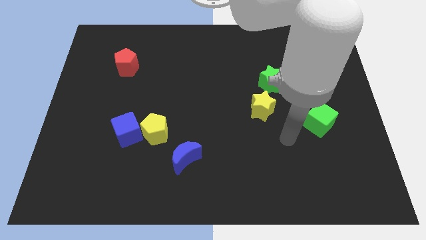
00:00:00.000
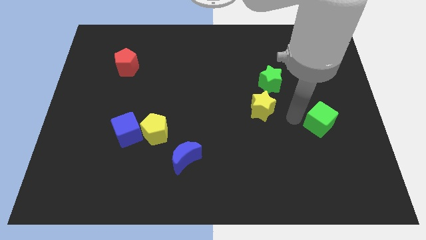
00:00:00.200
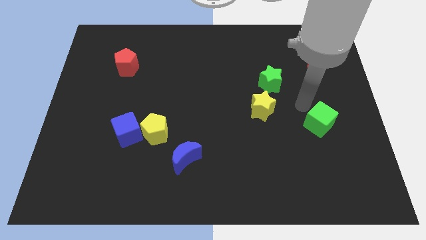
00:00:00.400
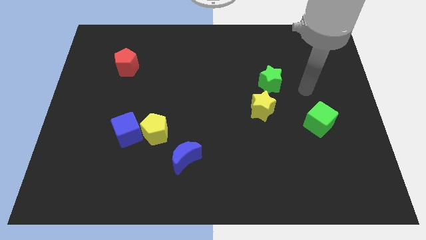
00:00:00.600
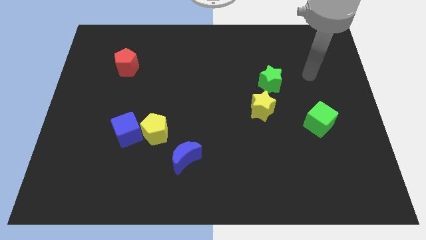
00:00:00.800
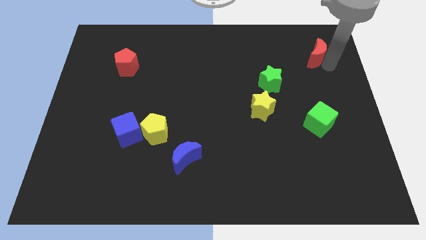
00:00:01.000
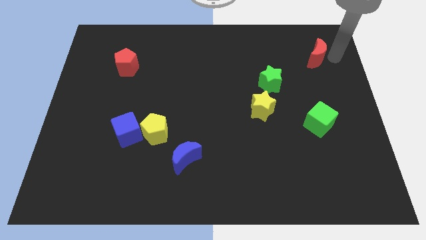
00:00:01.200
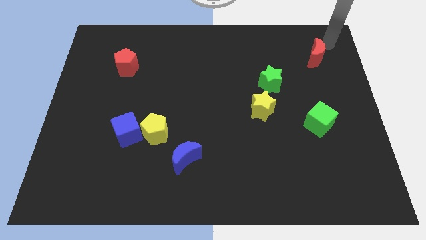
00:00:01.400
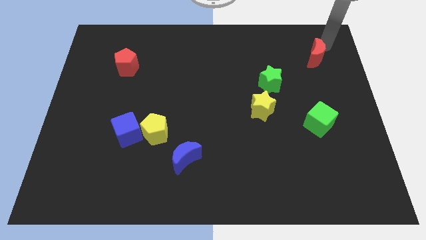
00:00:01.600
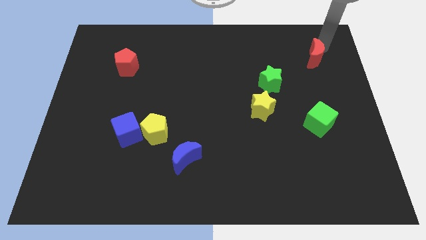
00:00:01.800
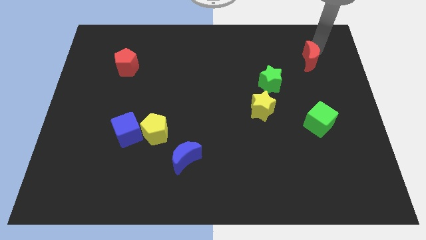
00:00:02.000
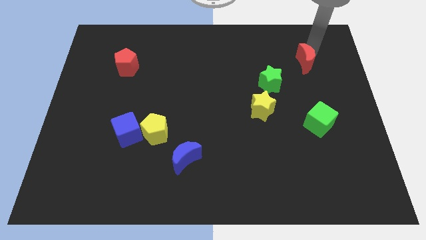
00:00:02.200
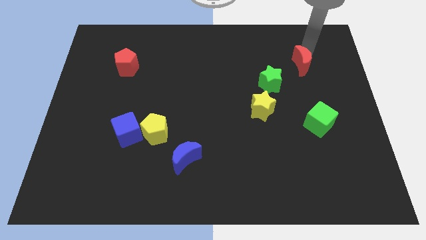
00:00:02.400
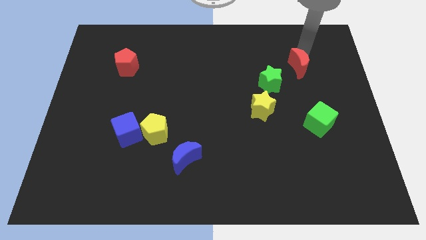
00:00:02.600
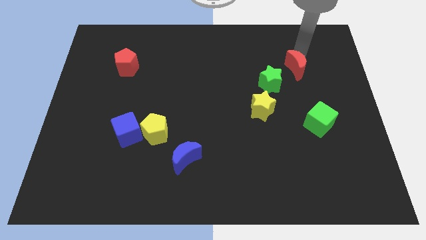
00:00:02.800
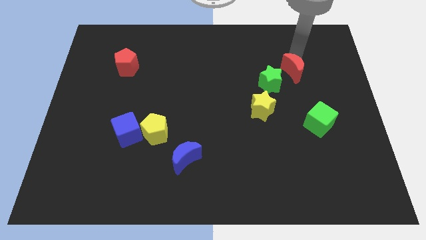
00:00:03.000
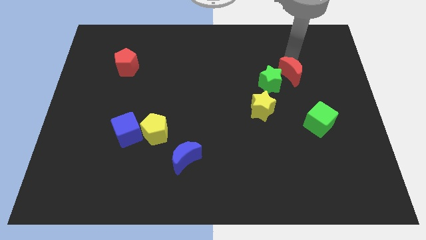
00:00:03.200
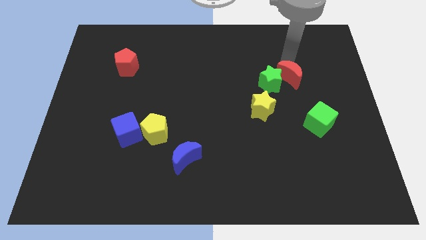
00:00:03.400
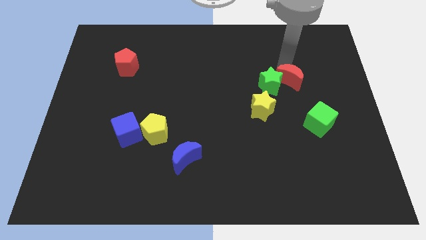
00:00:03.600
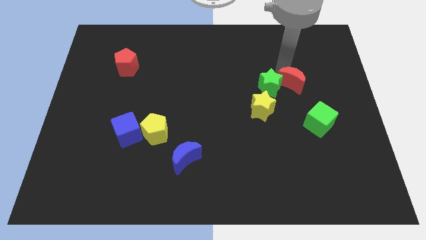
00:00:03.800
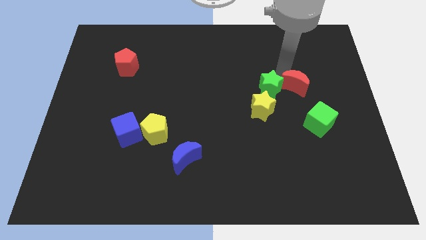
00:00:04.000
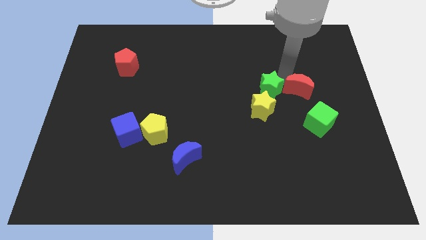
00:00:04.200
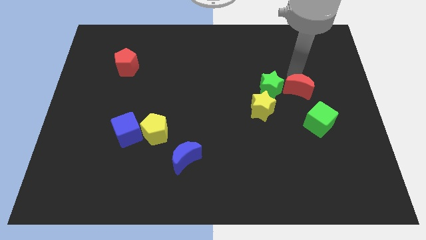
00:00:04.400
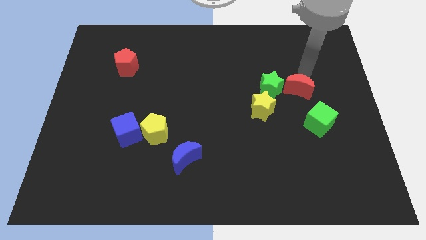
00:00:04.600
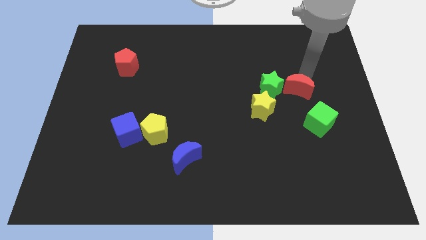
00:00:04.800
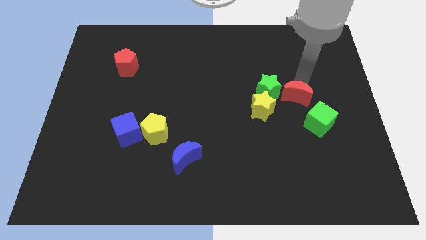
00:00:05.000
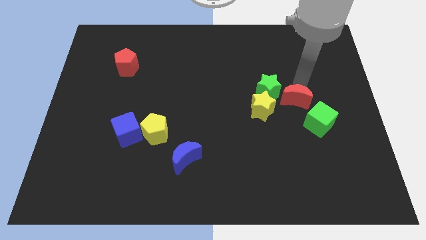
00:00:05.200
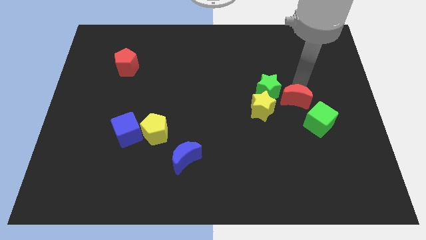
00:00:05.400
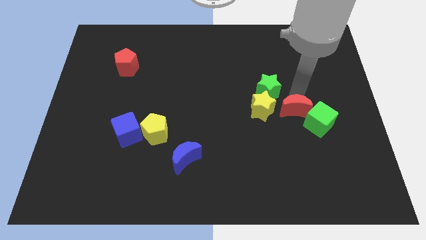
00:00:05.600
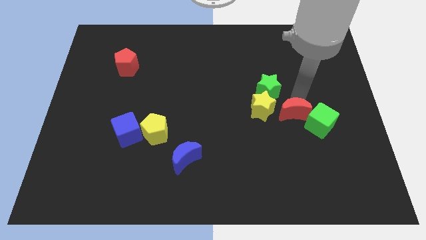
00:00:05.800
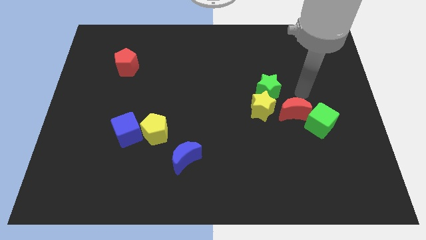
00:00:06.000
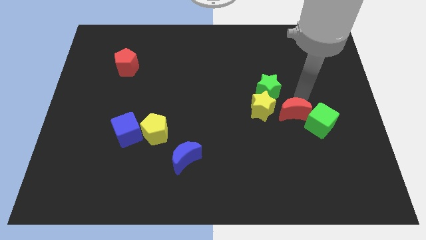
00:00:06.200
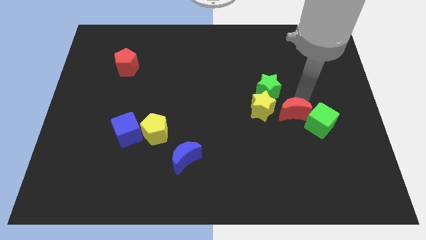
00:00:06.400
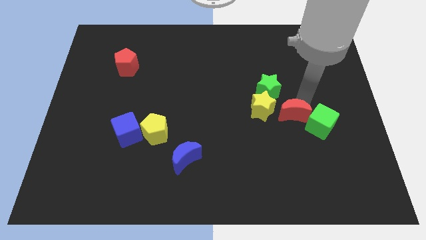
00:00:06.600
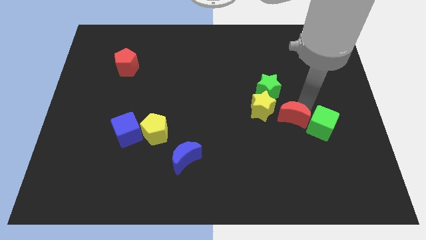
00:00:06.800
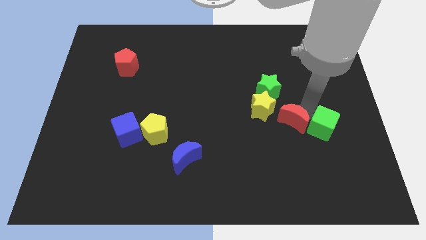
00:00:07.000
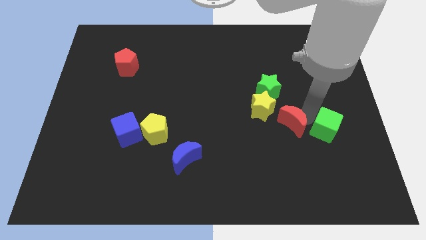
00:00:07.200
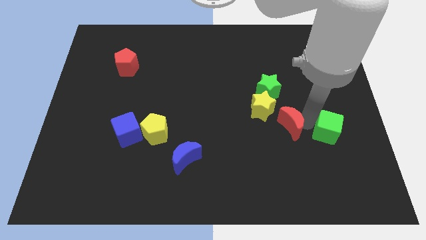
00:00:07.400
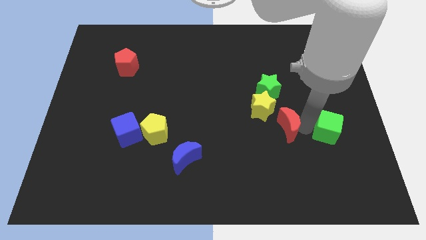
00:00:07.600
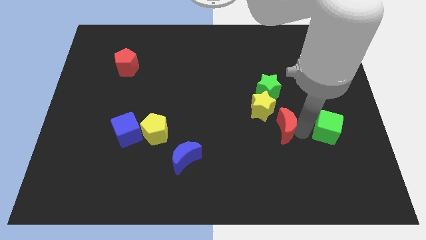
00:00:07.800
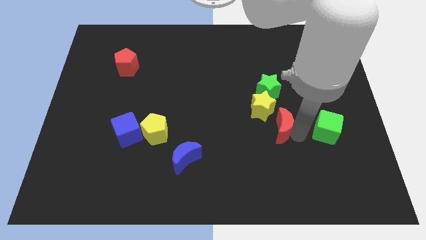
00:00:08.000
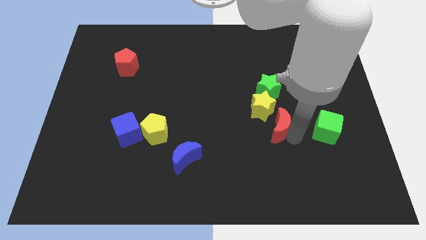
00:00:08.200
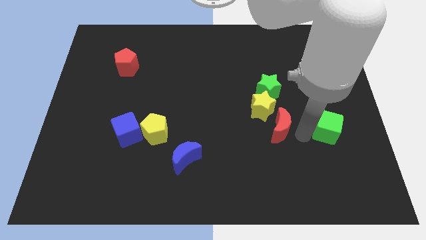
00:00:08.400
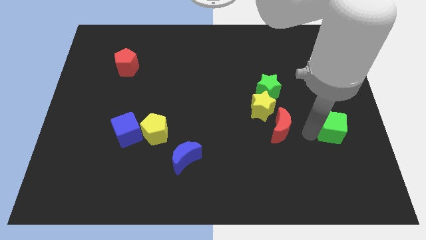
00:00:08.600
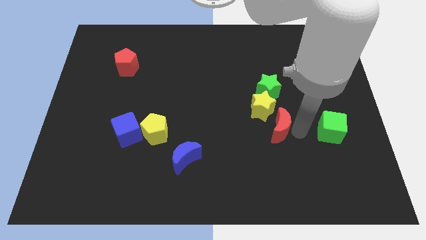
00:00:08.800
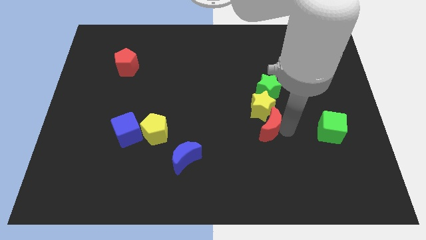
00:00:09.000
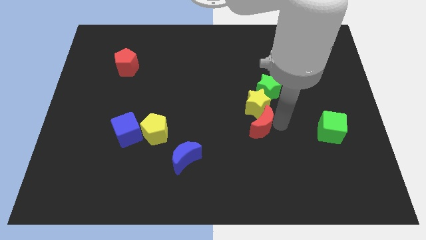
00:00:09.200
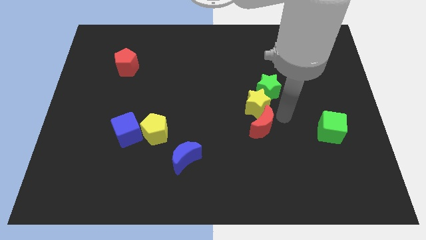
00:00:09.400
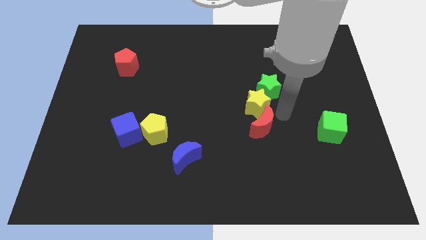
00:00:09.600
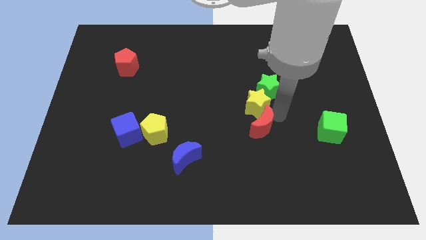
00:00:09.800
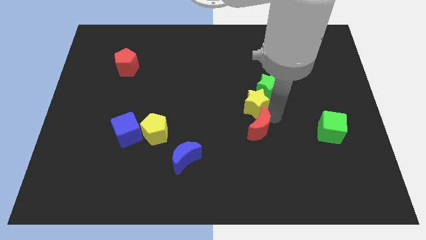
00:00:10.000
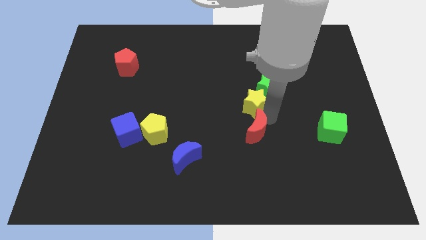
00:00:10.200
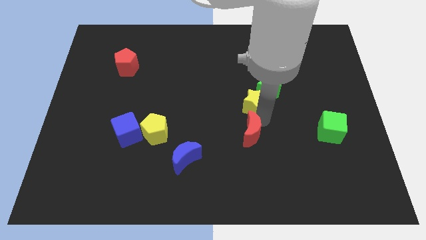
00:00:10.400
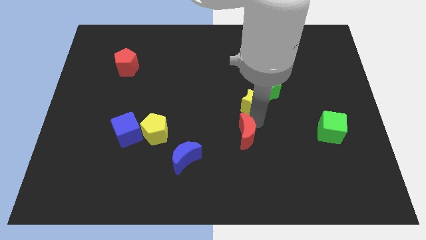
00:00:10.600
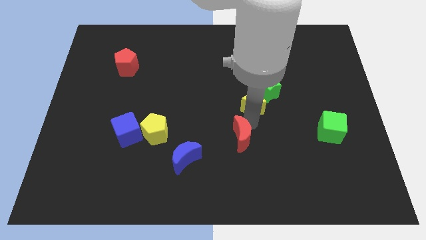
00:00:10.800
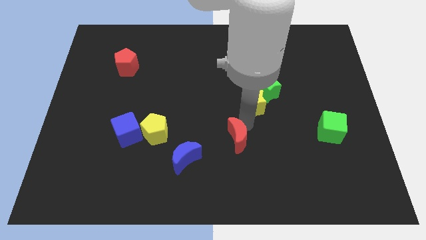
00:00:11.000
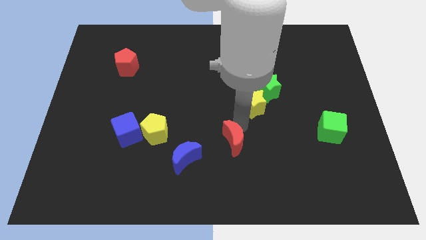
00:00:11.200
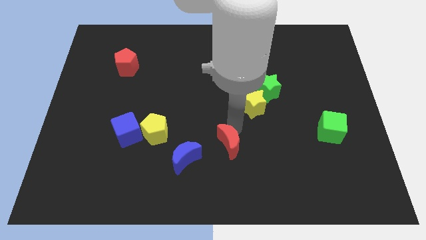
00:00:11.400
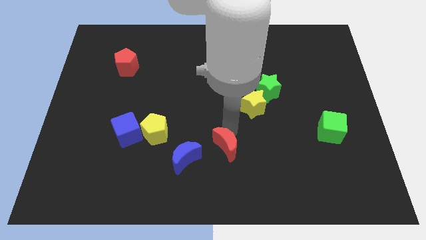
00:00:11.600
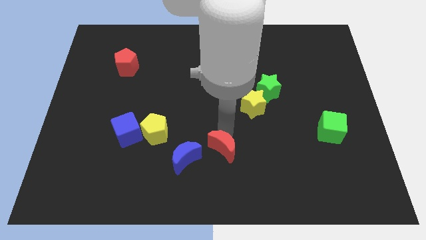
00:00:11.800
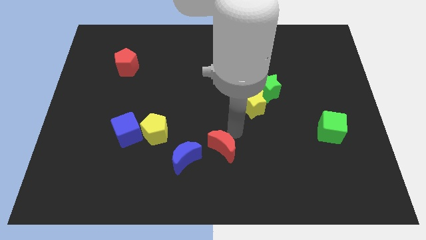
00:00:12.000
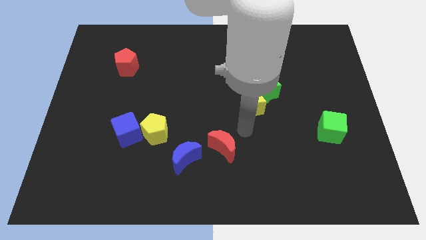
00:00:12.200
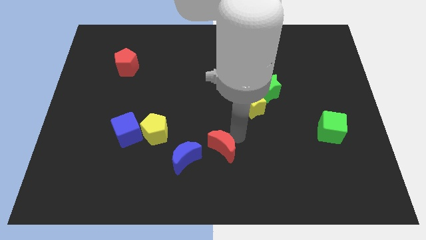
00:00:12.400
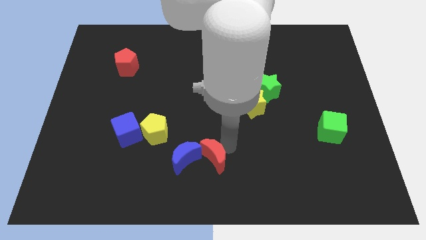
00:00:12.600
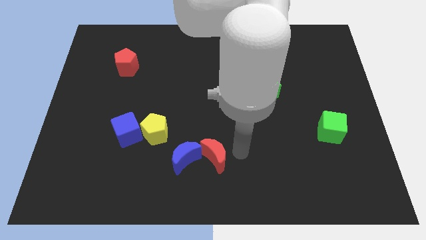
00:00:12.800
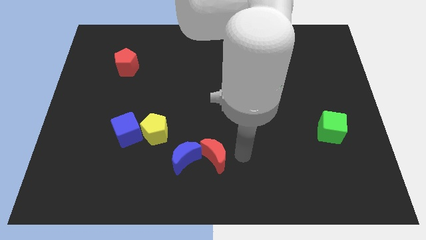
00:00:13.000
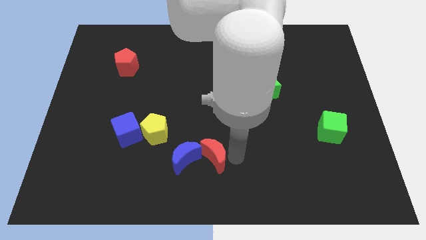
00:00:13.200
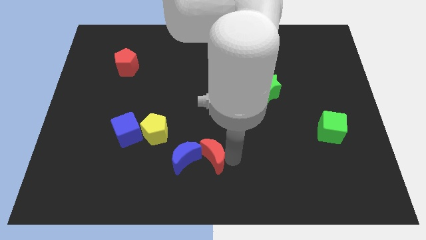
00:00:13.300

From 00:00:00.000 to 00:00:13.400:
slide the red moon next to the blue moon

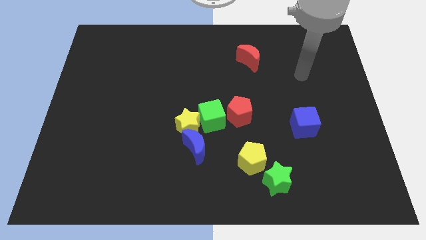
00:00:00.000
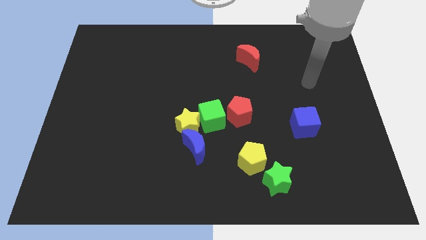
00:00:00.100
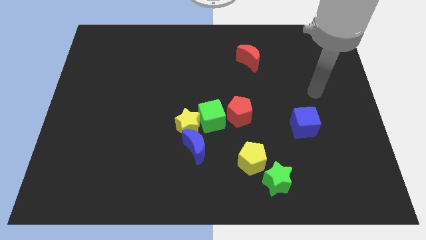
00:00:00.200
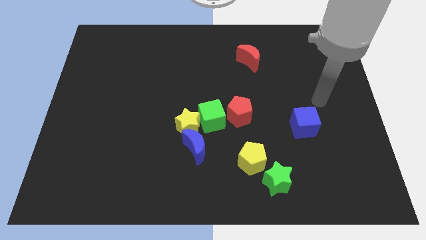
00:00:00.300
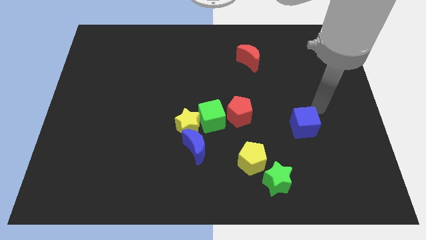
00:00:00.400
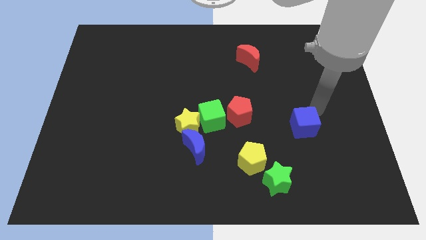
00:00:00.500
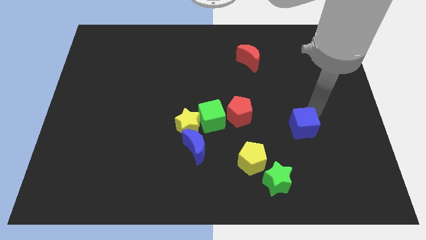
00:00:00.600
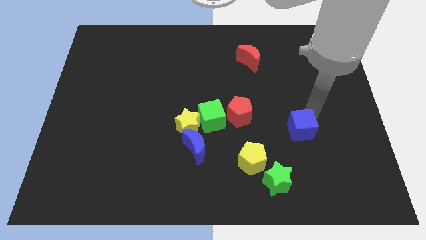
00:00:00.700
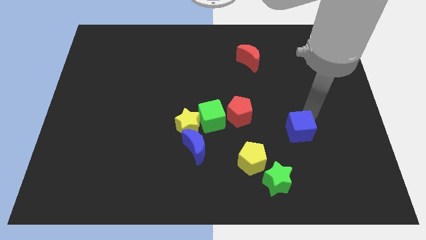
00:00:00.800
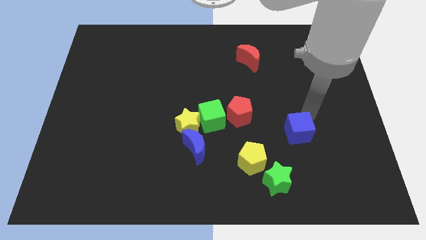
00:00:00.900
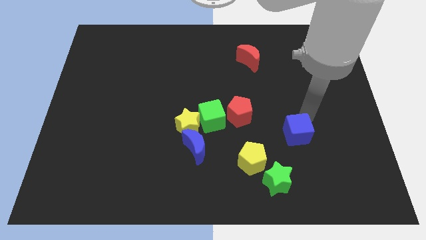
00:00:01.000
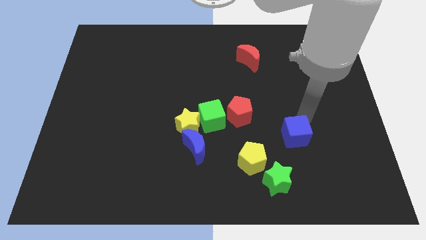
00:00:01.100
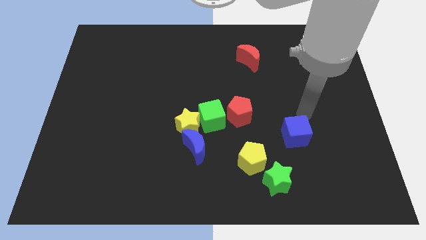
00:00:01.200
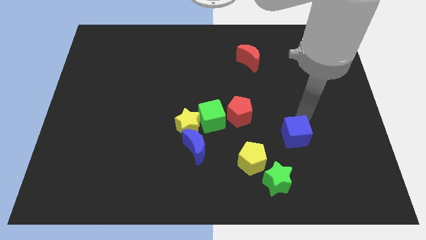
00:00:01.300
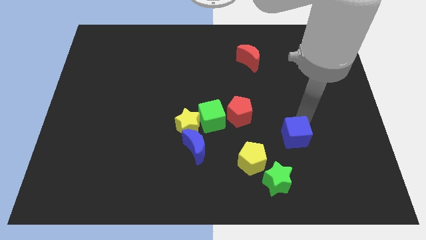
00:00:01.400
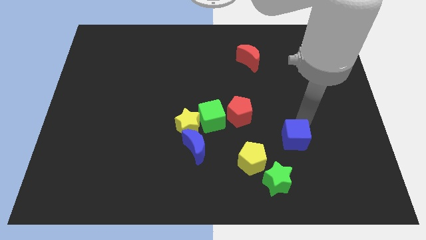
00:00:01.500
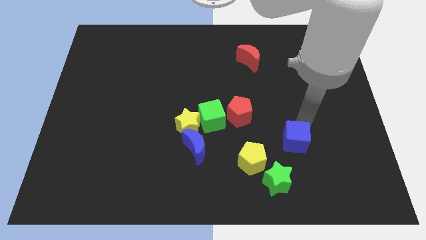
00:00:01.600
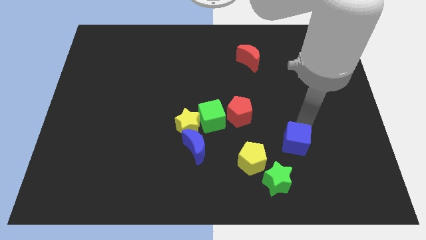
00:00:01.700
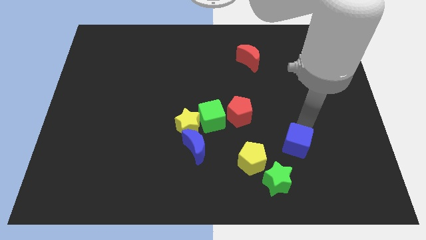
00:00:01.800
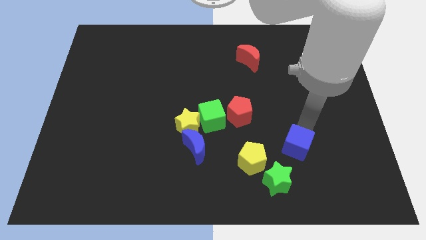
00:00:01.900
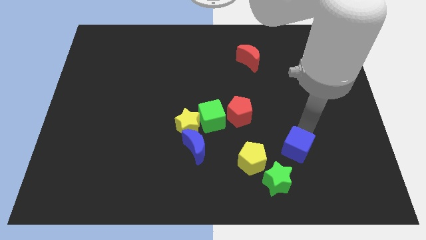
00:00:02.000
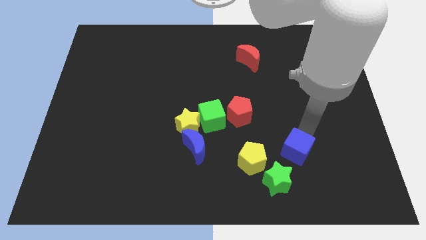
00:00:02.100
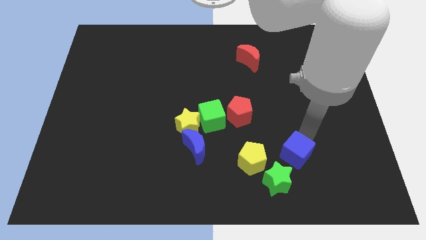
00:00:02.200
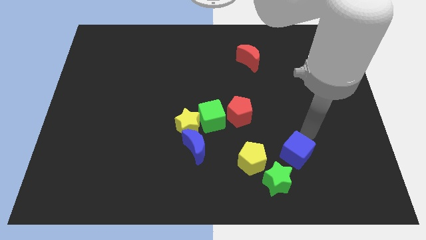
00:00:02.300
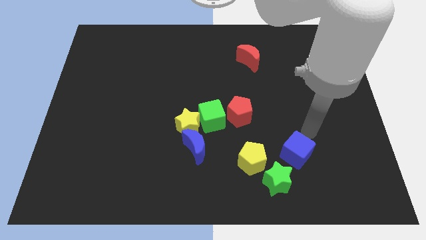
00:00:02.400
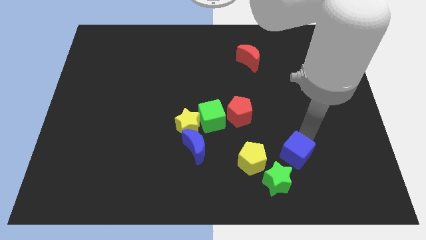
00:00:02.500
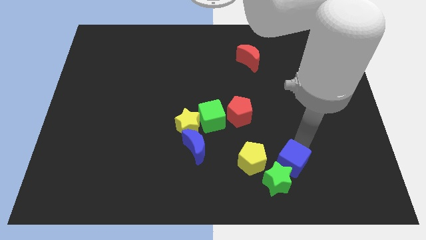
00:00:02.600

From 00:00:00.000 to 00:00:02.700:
move the blue cube to the green star
